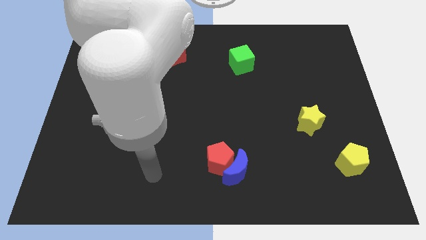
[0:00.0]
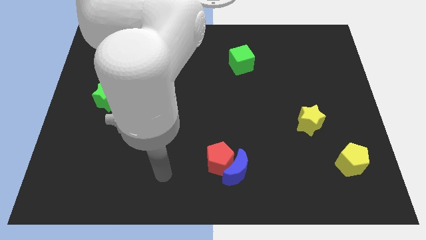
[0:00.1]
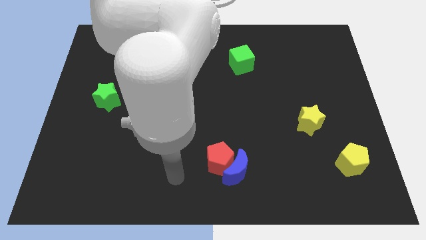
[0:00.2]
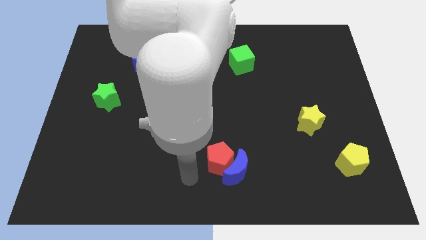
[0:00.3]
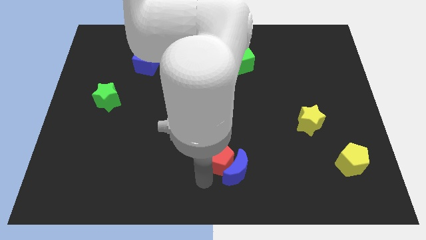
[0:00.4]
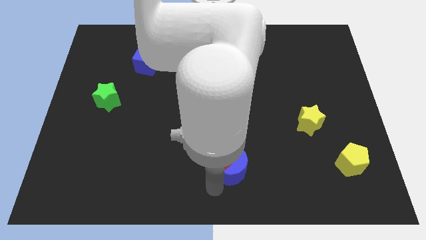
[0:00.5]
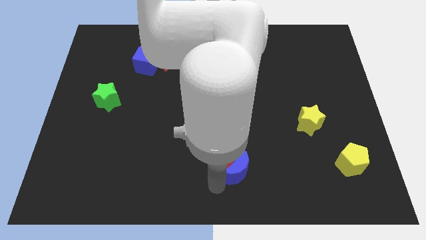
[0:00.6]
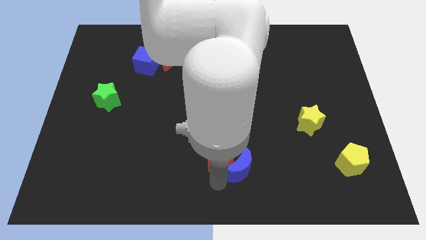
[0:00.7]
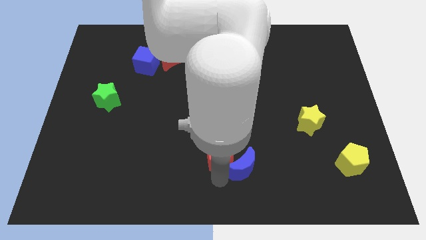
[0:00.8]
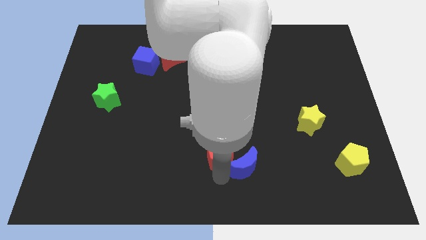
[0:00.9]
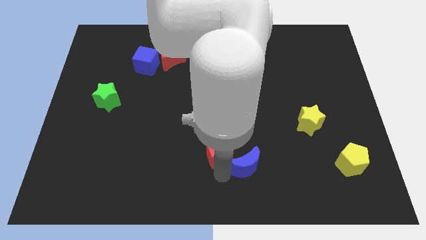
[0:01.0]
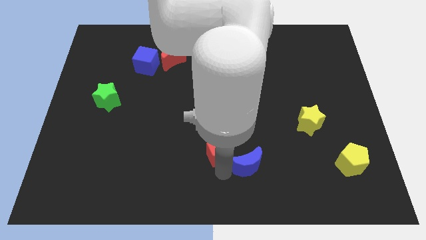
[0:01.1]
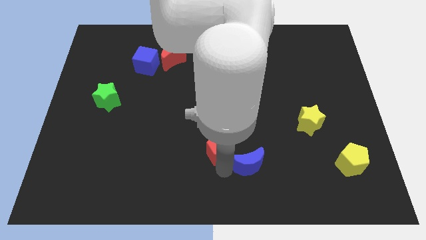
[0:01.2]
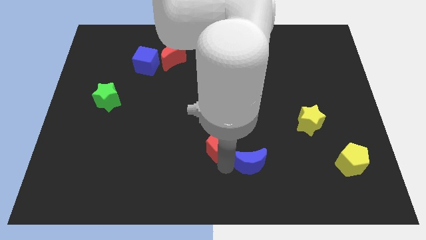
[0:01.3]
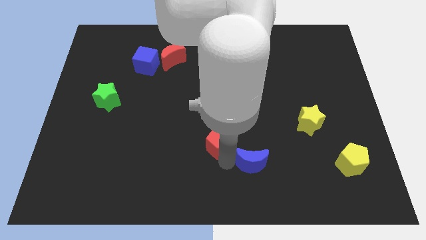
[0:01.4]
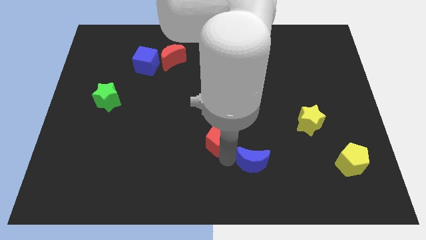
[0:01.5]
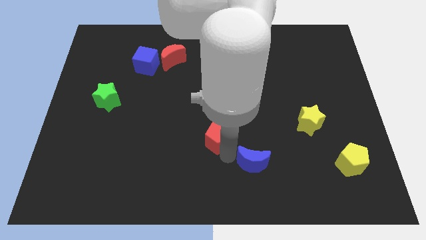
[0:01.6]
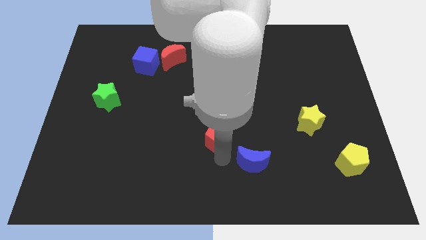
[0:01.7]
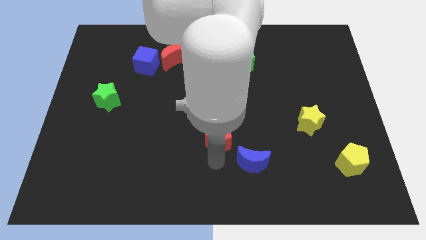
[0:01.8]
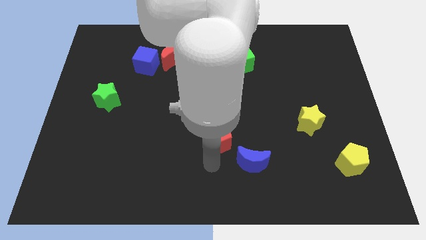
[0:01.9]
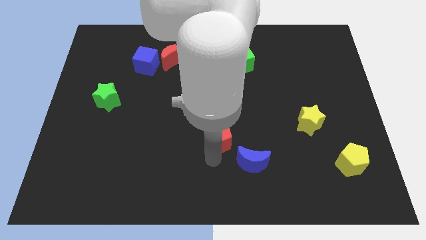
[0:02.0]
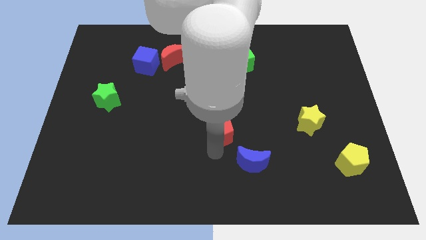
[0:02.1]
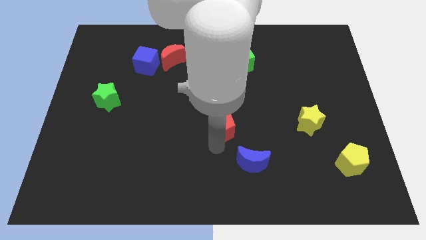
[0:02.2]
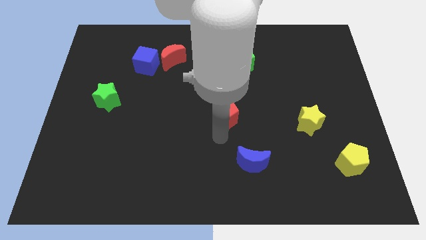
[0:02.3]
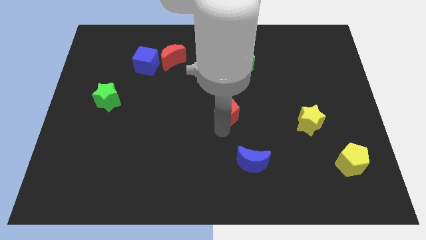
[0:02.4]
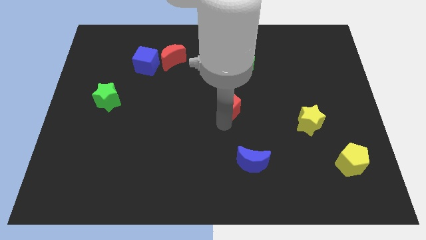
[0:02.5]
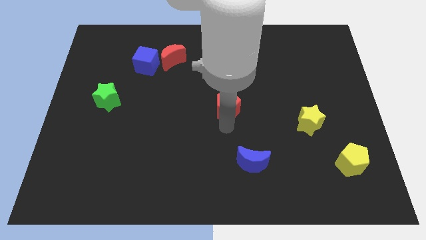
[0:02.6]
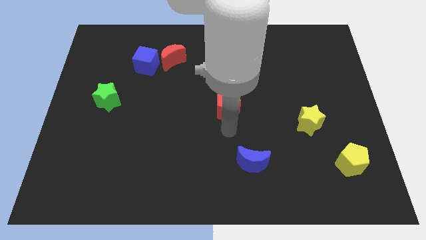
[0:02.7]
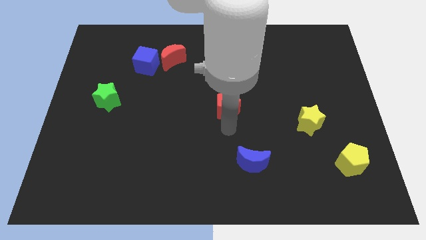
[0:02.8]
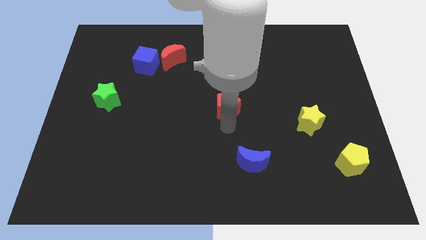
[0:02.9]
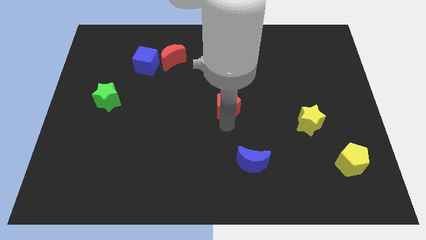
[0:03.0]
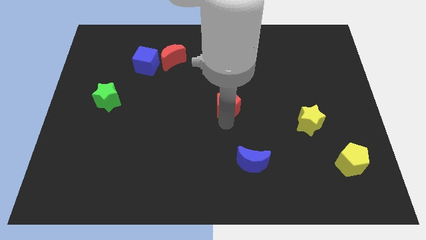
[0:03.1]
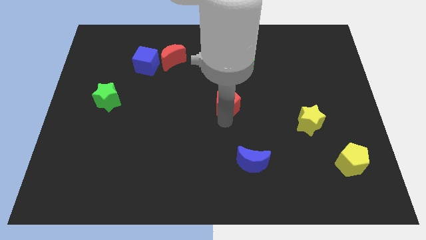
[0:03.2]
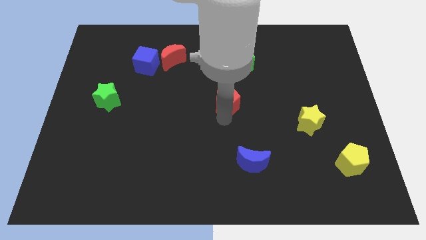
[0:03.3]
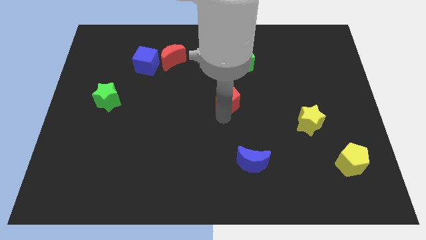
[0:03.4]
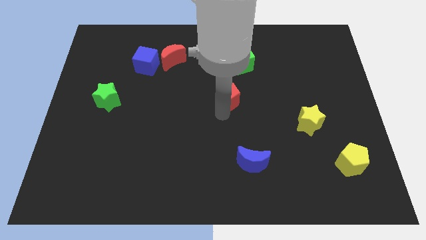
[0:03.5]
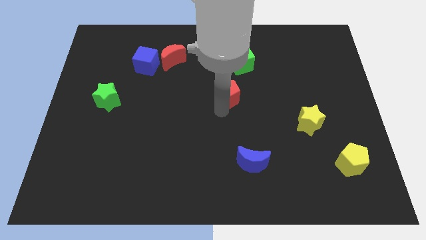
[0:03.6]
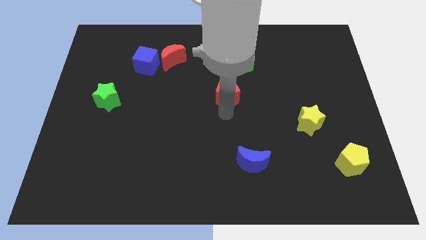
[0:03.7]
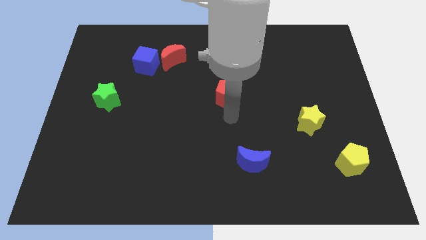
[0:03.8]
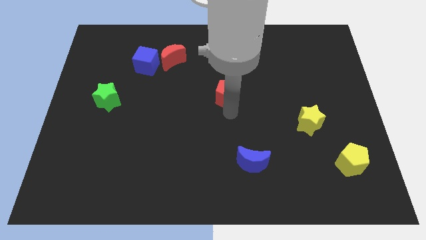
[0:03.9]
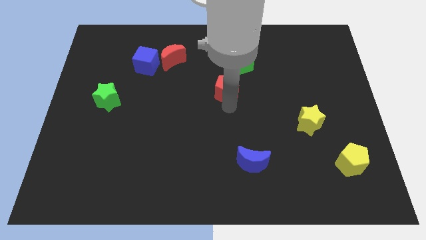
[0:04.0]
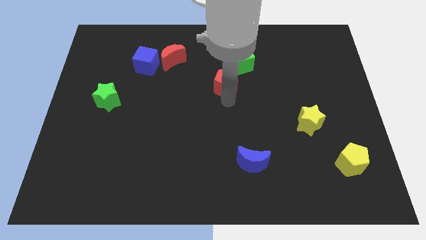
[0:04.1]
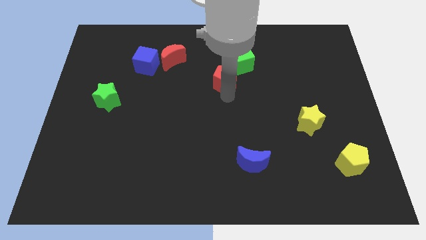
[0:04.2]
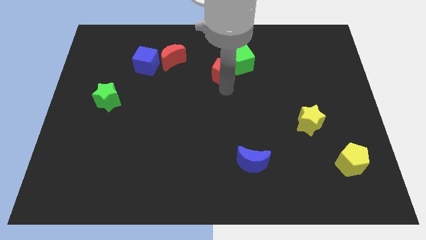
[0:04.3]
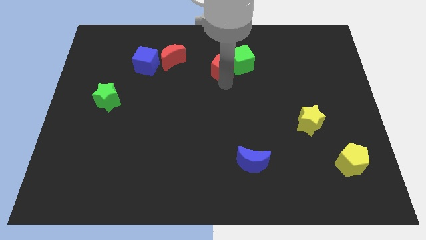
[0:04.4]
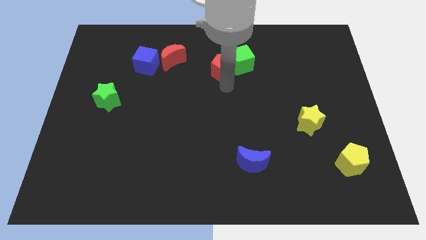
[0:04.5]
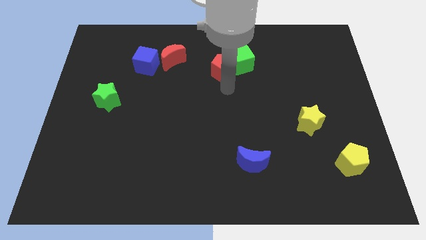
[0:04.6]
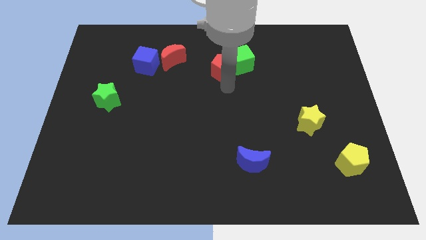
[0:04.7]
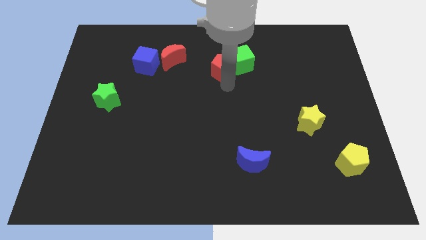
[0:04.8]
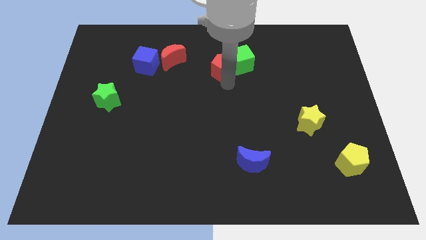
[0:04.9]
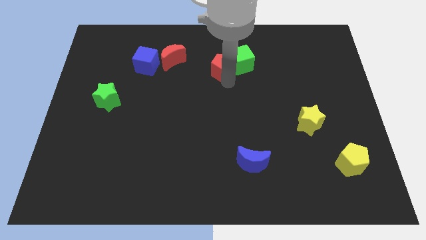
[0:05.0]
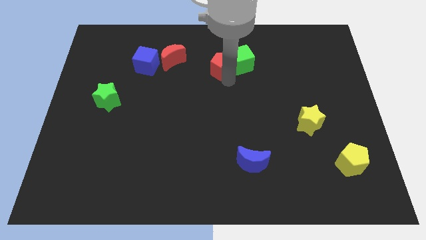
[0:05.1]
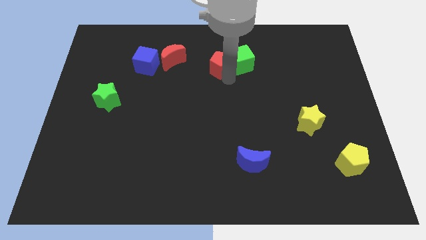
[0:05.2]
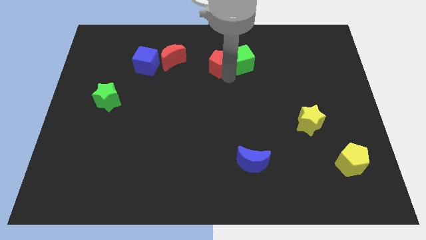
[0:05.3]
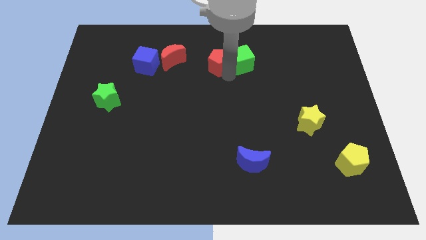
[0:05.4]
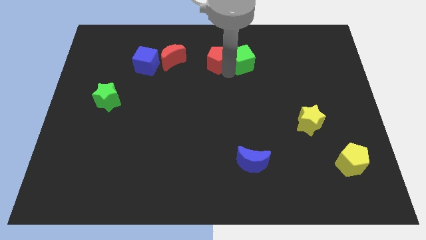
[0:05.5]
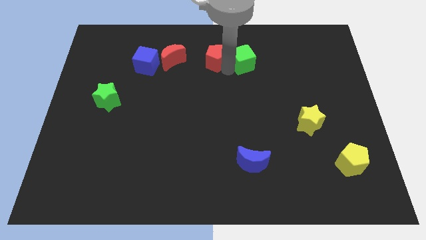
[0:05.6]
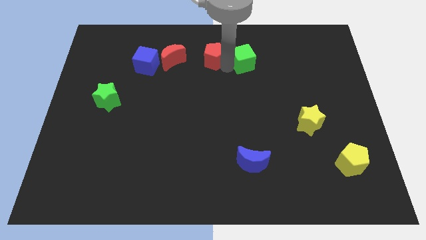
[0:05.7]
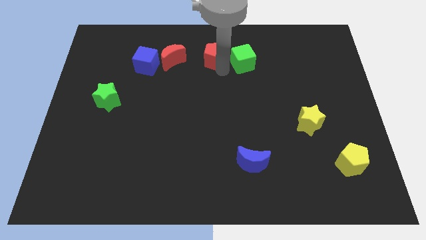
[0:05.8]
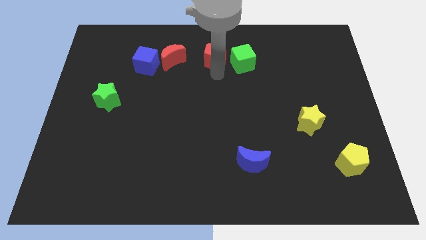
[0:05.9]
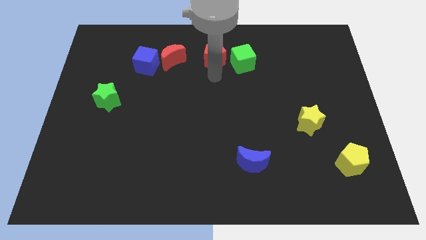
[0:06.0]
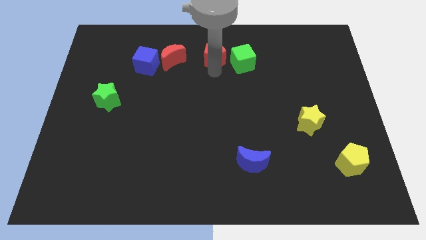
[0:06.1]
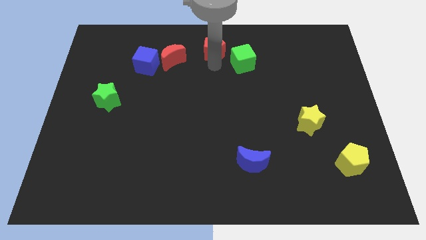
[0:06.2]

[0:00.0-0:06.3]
put the red pentagon to the towards your base
